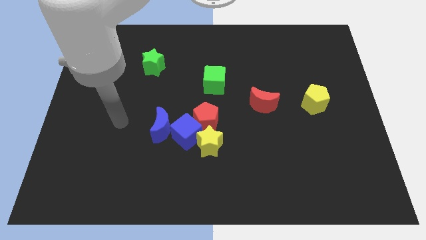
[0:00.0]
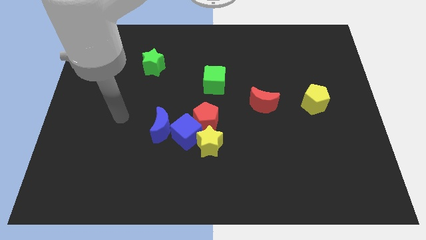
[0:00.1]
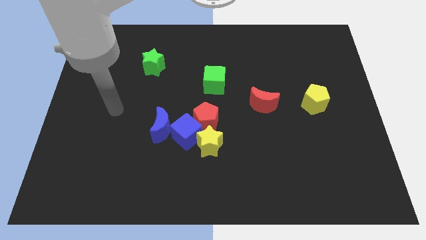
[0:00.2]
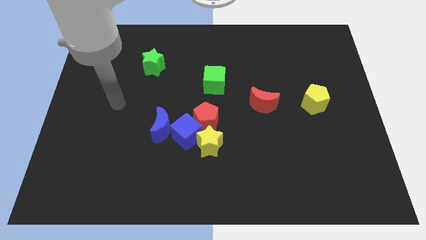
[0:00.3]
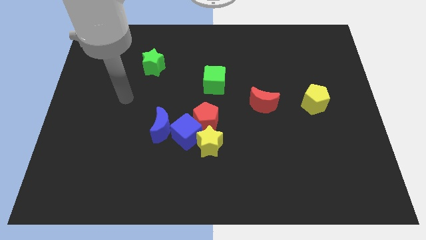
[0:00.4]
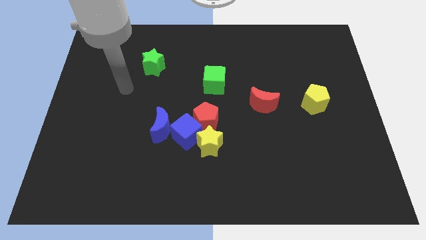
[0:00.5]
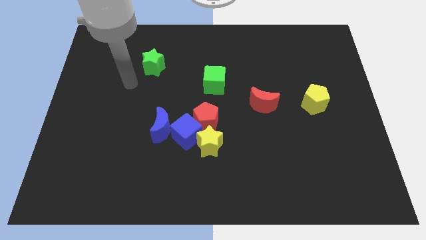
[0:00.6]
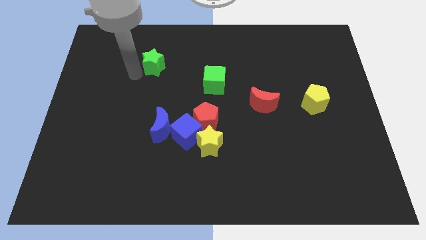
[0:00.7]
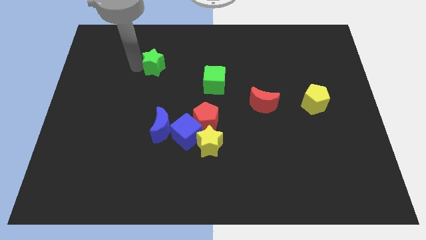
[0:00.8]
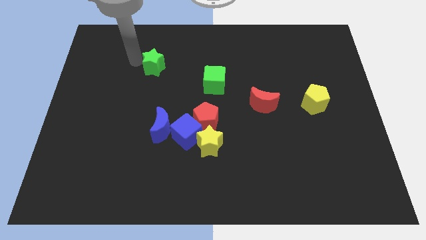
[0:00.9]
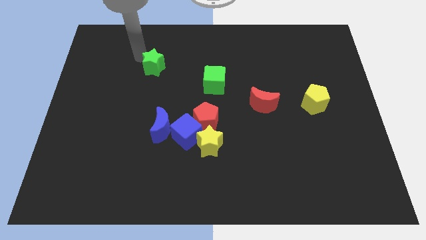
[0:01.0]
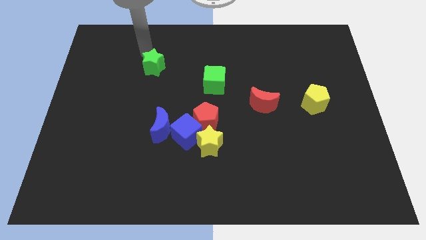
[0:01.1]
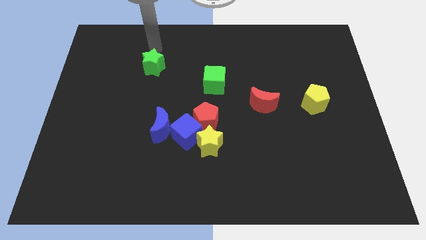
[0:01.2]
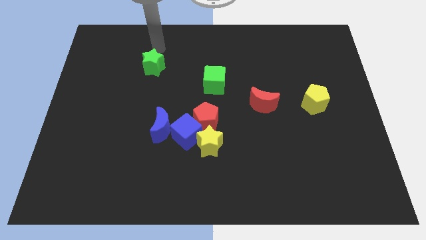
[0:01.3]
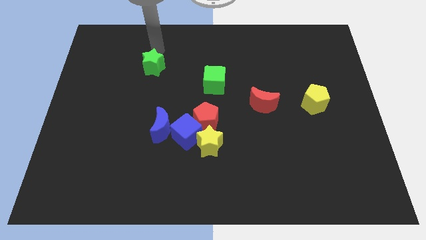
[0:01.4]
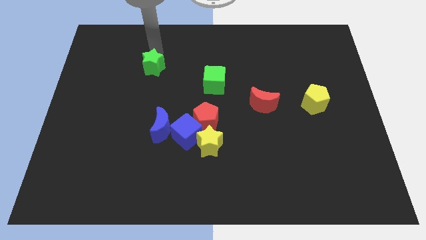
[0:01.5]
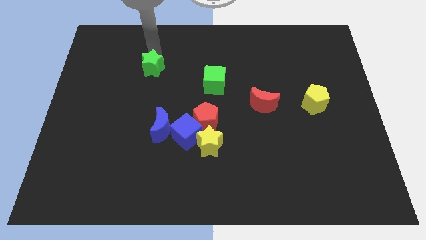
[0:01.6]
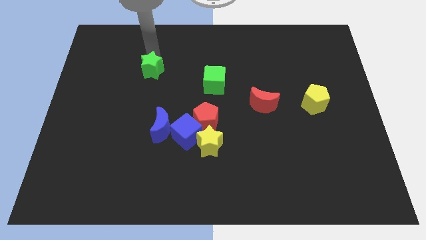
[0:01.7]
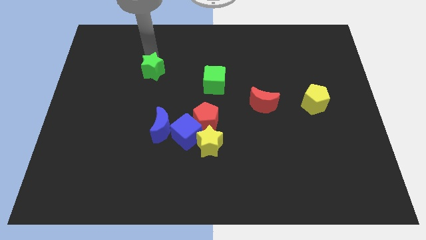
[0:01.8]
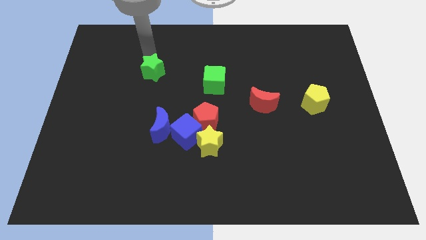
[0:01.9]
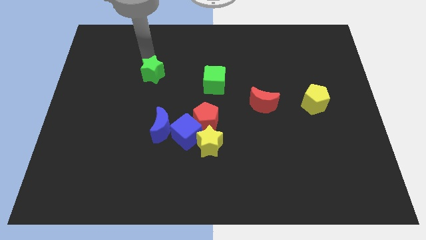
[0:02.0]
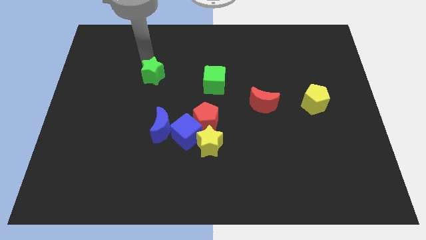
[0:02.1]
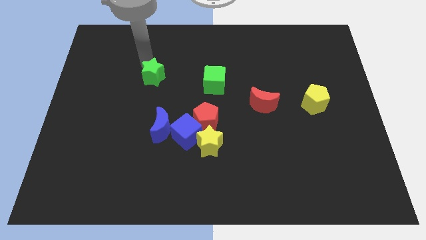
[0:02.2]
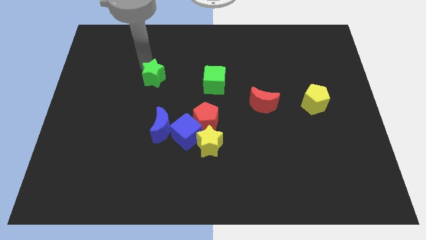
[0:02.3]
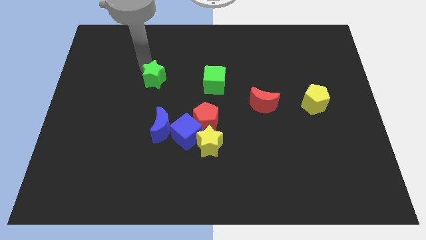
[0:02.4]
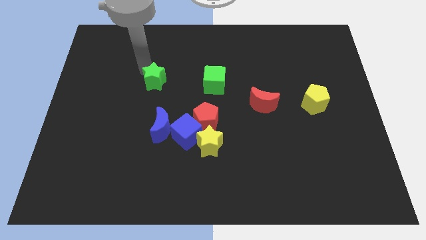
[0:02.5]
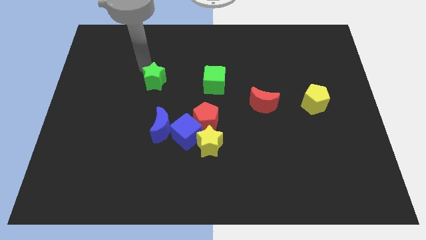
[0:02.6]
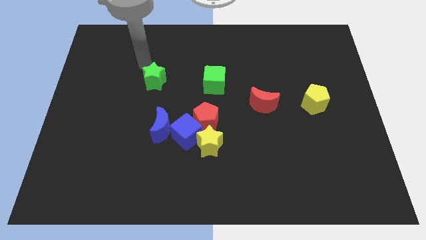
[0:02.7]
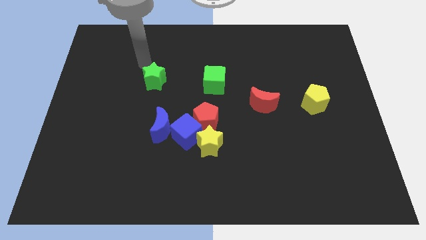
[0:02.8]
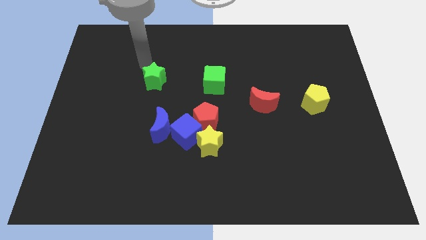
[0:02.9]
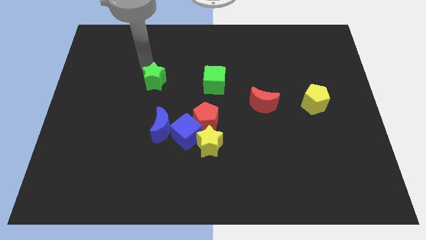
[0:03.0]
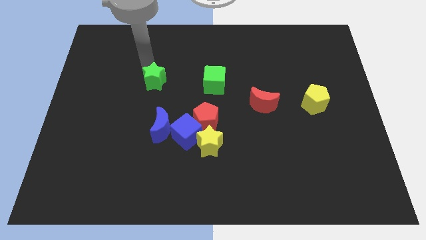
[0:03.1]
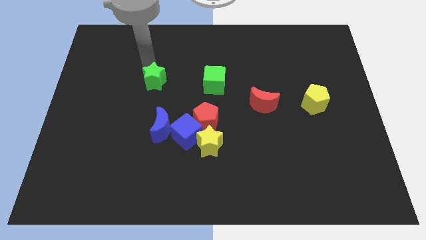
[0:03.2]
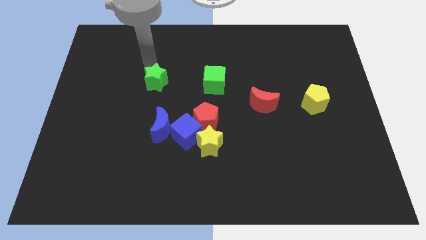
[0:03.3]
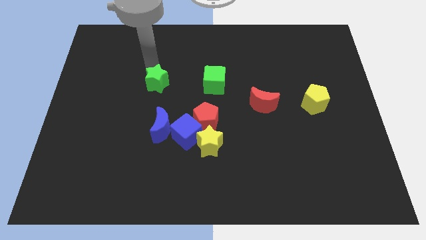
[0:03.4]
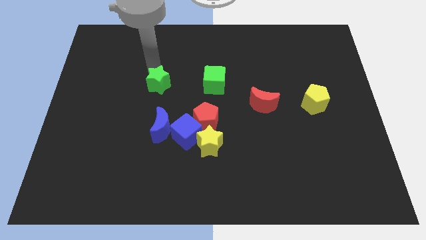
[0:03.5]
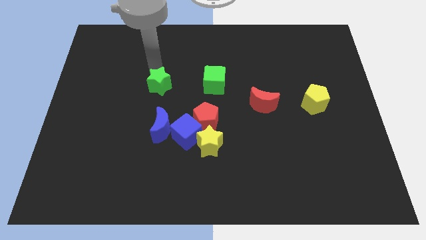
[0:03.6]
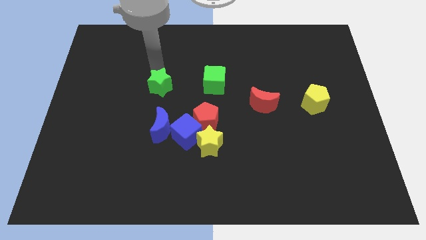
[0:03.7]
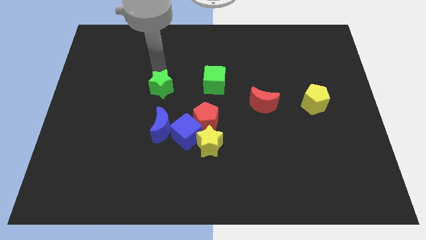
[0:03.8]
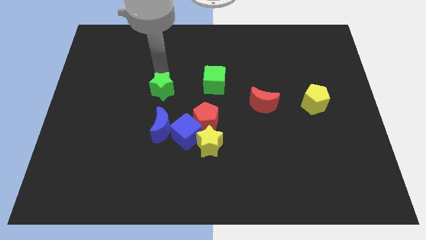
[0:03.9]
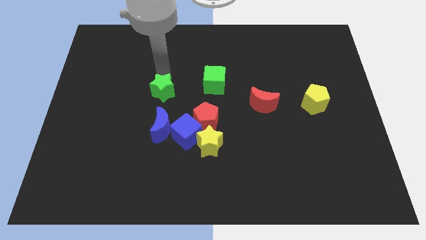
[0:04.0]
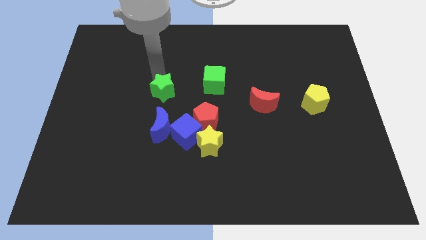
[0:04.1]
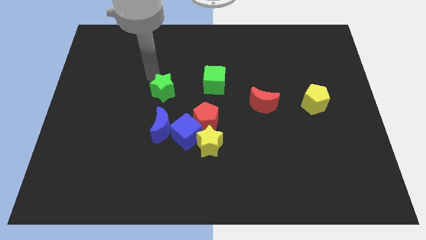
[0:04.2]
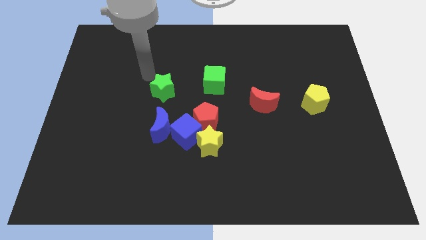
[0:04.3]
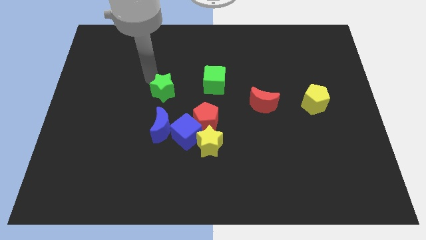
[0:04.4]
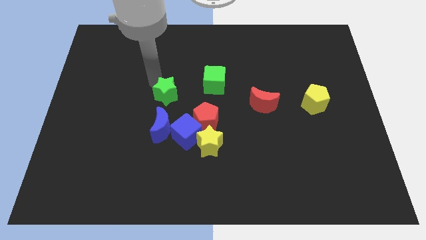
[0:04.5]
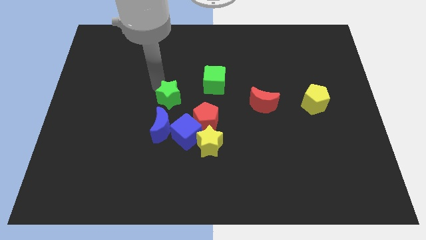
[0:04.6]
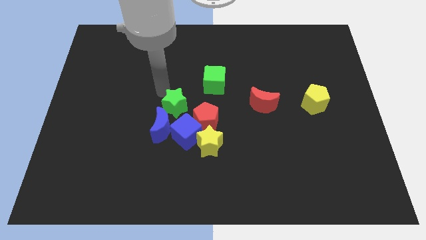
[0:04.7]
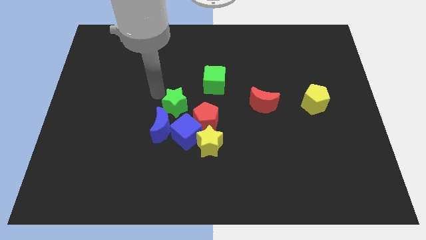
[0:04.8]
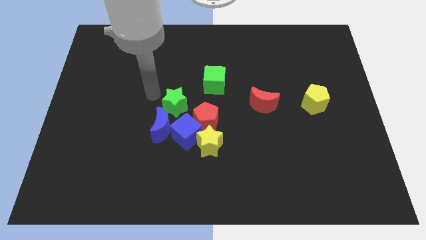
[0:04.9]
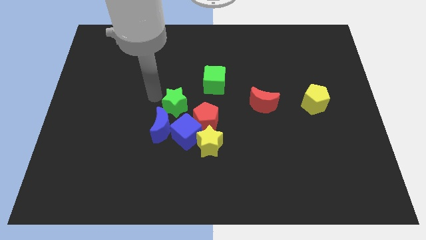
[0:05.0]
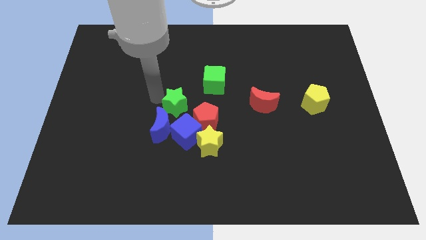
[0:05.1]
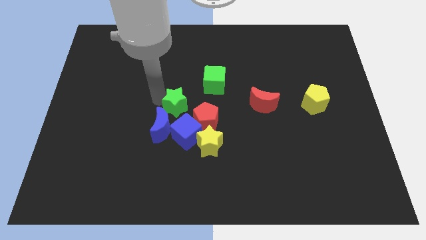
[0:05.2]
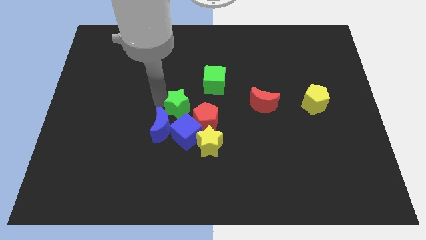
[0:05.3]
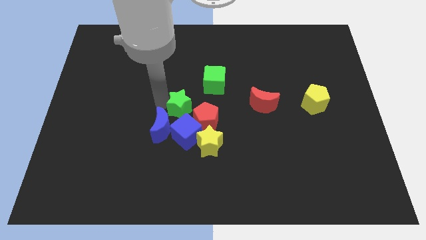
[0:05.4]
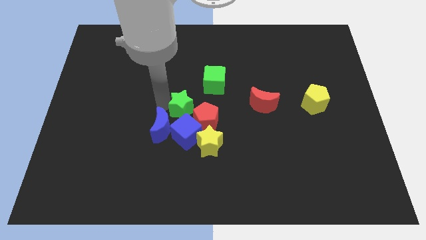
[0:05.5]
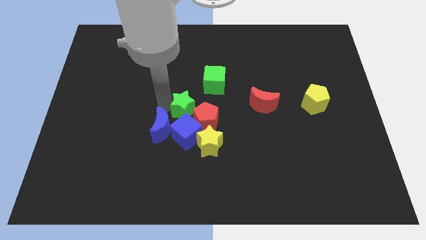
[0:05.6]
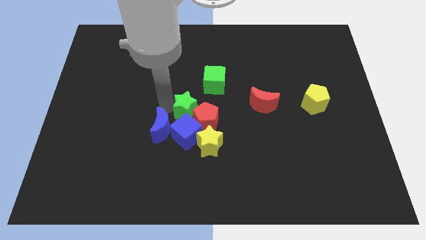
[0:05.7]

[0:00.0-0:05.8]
push the green star next to the red pentagon
